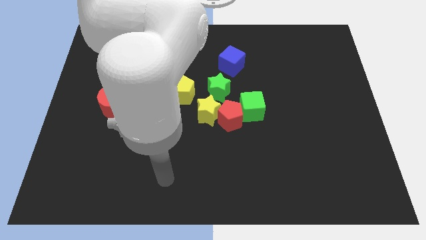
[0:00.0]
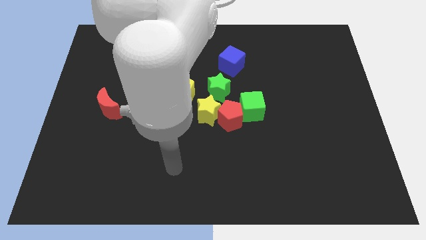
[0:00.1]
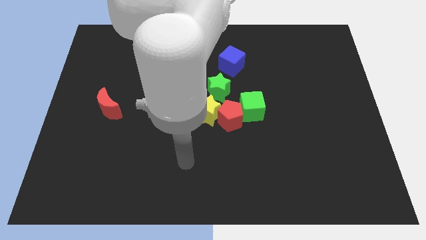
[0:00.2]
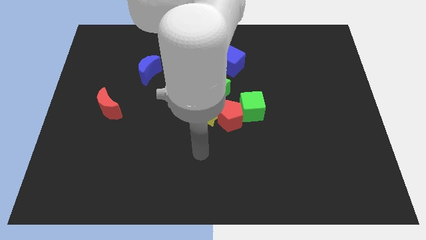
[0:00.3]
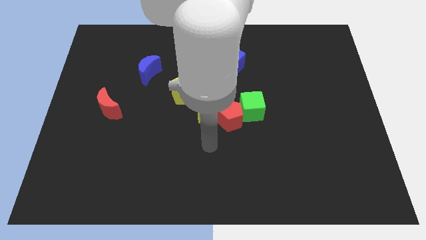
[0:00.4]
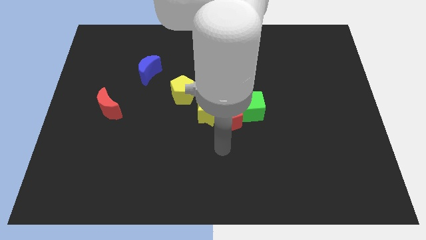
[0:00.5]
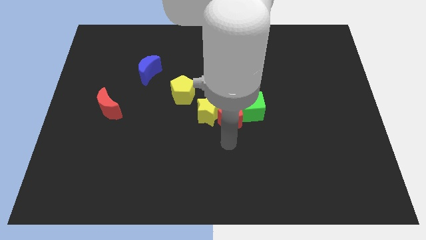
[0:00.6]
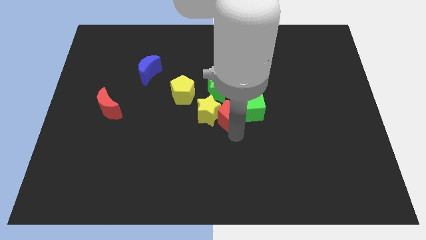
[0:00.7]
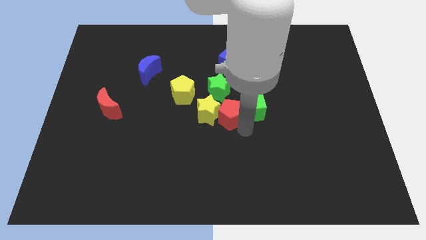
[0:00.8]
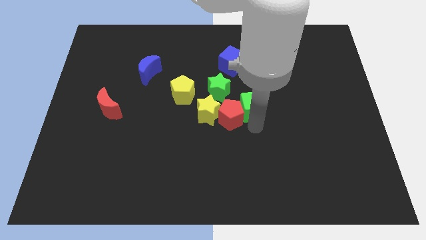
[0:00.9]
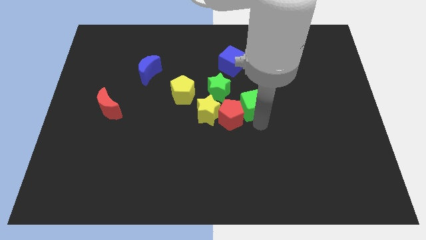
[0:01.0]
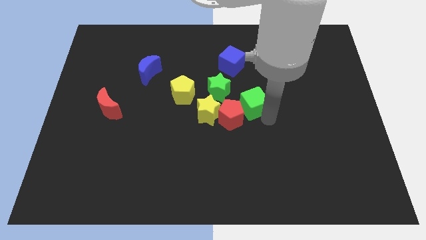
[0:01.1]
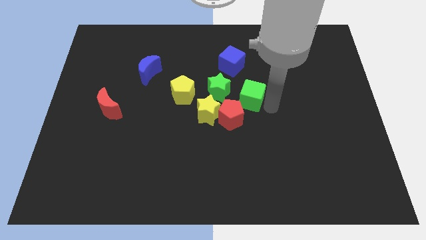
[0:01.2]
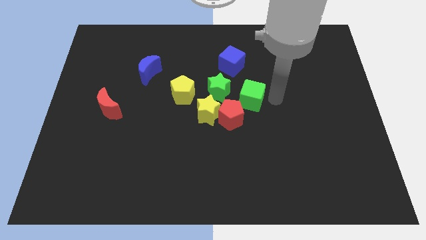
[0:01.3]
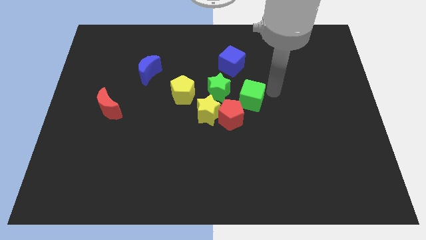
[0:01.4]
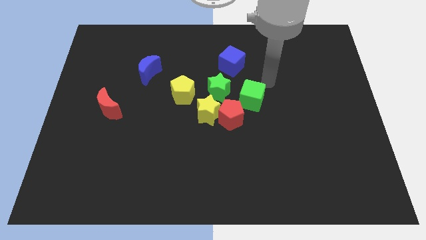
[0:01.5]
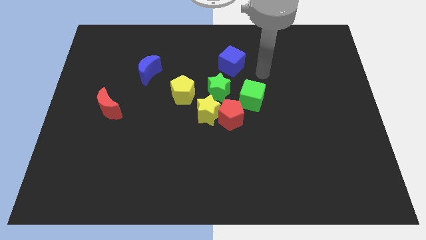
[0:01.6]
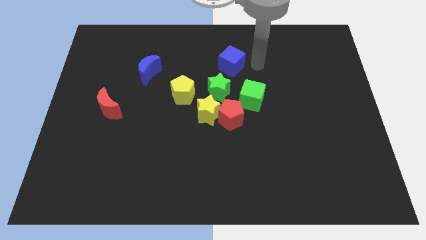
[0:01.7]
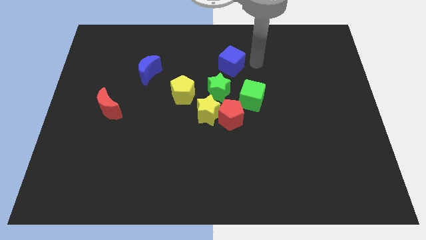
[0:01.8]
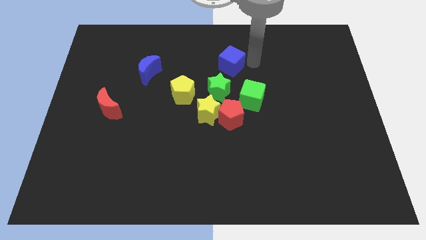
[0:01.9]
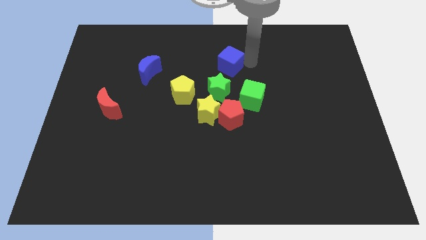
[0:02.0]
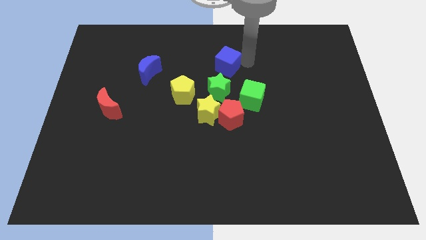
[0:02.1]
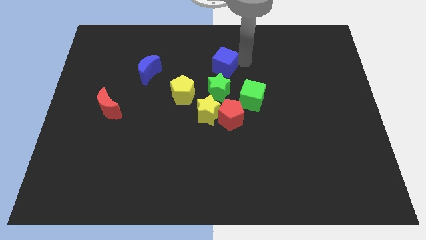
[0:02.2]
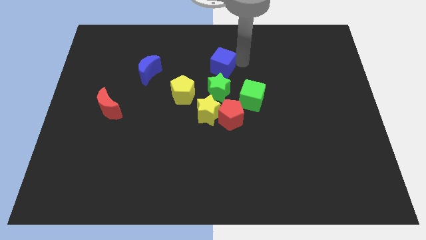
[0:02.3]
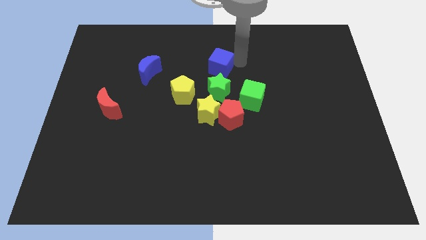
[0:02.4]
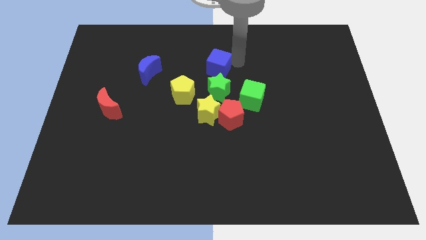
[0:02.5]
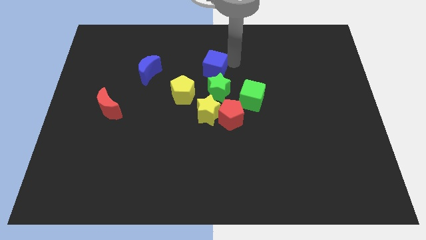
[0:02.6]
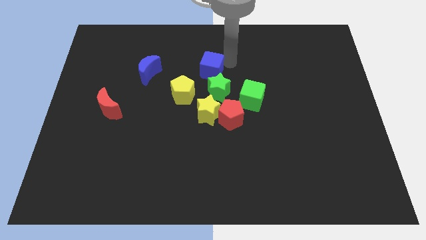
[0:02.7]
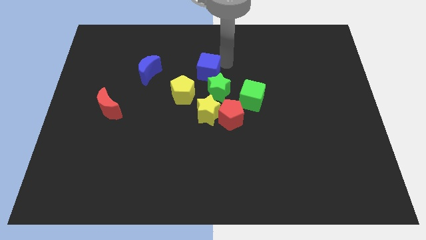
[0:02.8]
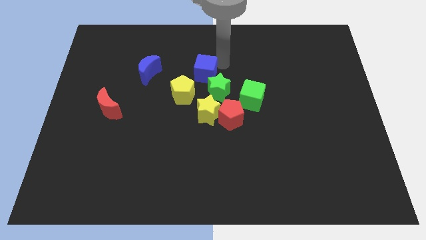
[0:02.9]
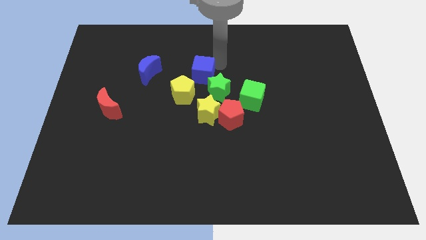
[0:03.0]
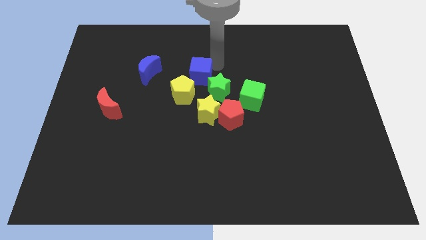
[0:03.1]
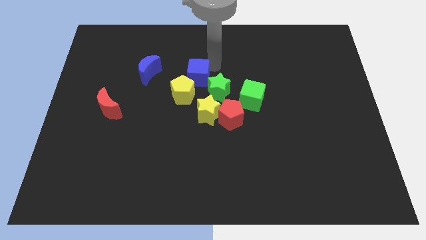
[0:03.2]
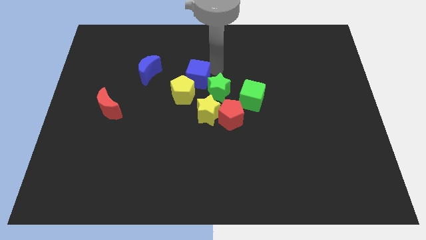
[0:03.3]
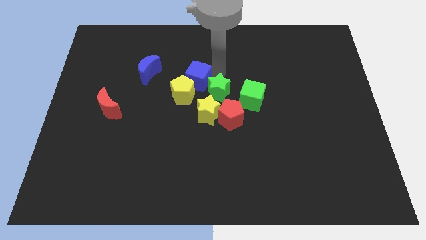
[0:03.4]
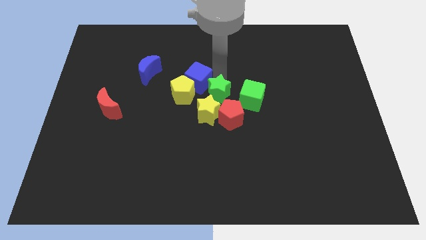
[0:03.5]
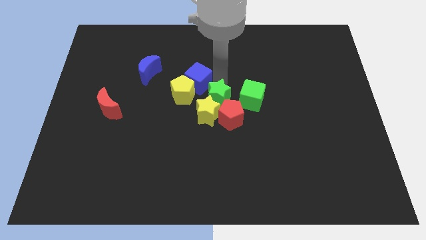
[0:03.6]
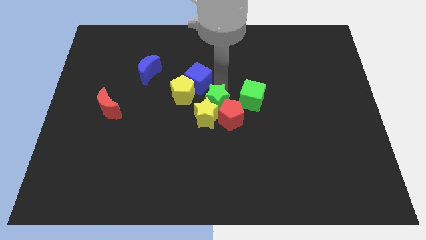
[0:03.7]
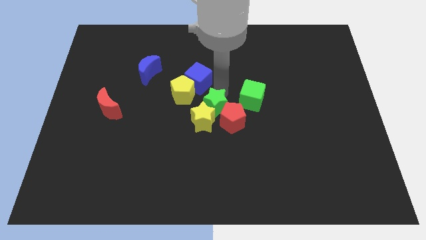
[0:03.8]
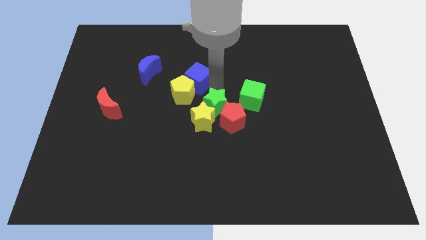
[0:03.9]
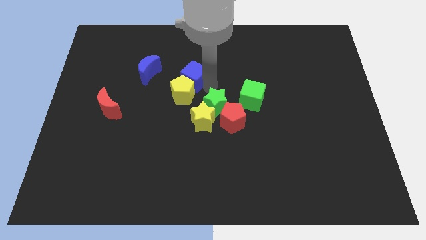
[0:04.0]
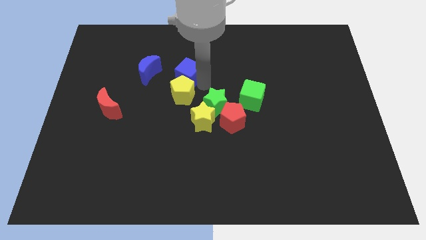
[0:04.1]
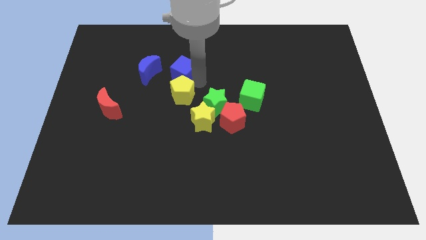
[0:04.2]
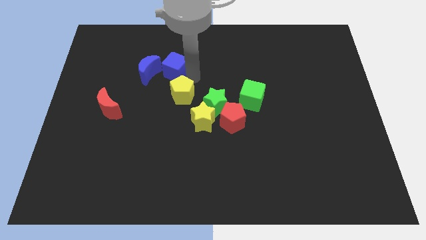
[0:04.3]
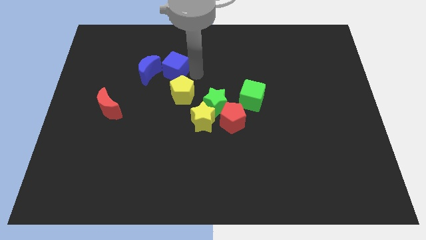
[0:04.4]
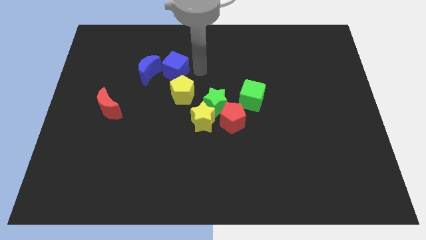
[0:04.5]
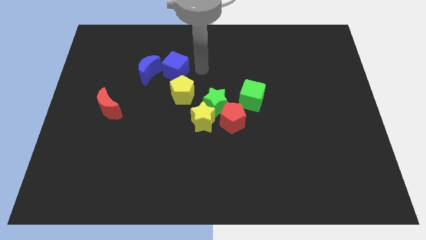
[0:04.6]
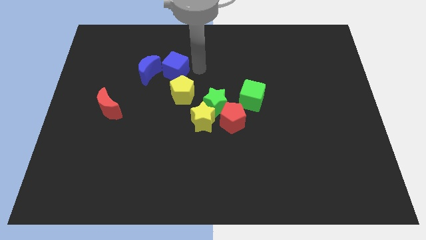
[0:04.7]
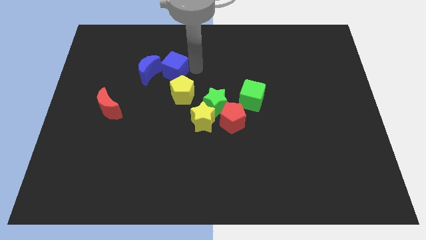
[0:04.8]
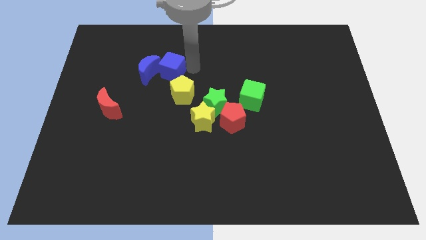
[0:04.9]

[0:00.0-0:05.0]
put the blue cube towards the blue moon

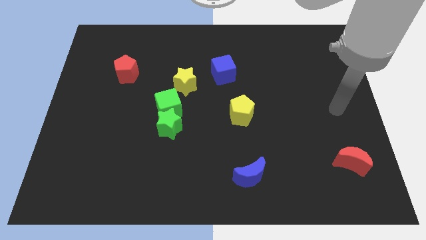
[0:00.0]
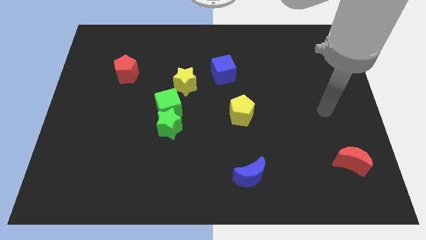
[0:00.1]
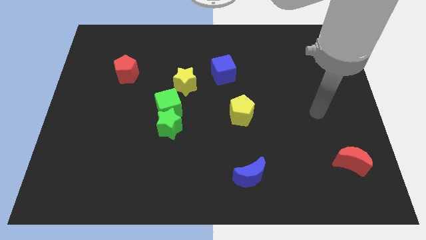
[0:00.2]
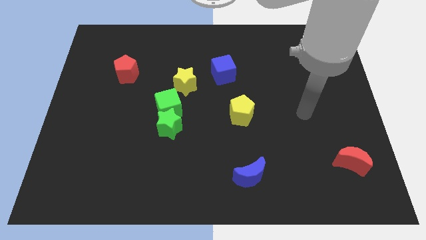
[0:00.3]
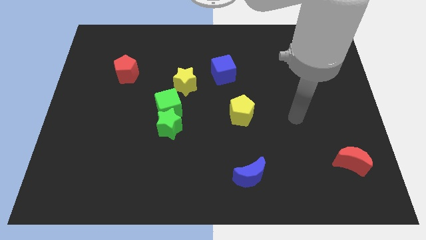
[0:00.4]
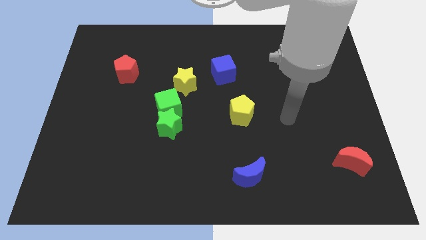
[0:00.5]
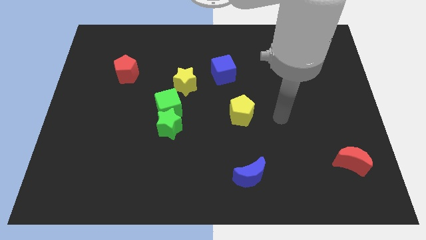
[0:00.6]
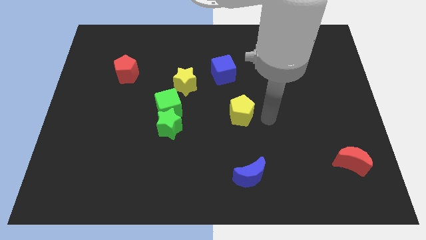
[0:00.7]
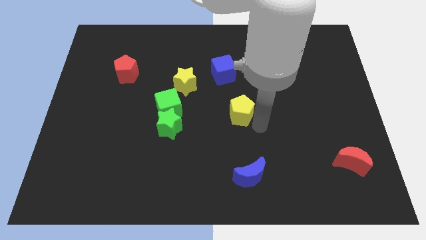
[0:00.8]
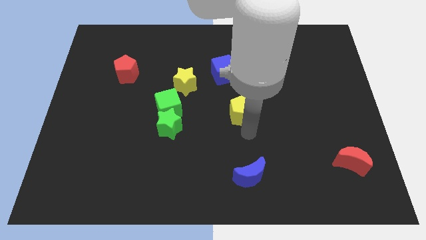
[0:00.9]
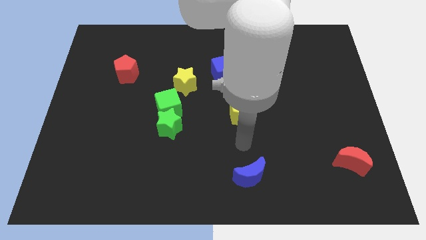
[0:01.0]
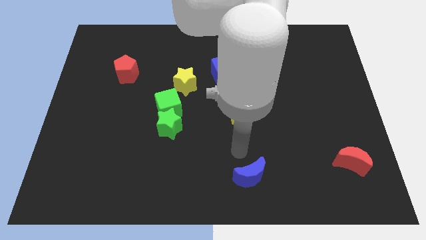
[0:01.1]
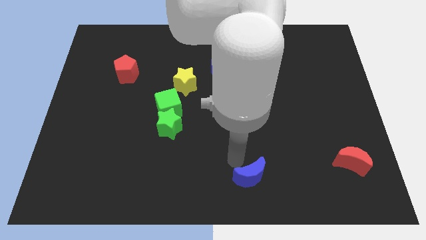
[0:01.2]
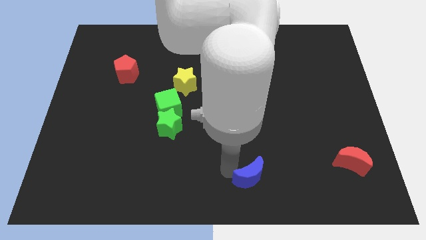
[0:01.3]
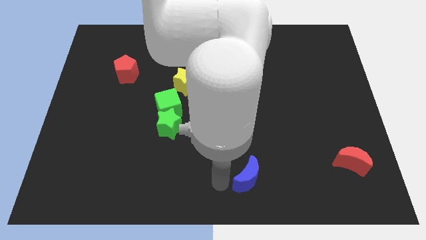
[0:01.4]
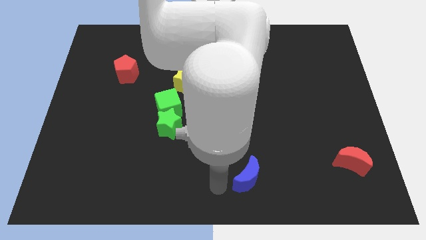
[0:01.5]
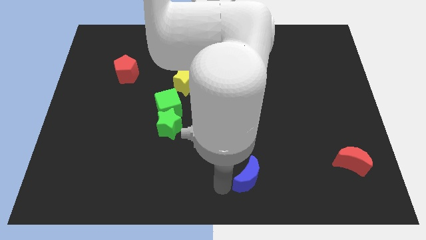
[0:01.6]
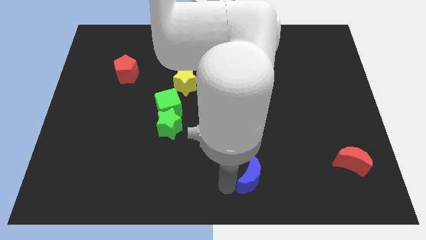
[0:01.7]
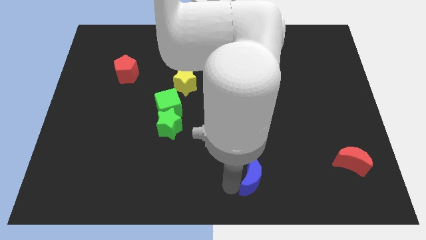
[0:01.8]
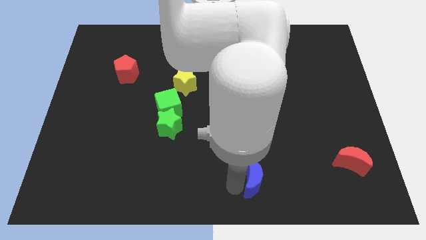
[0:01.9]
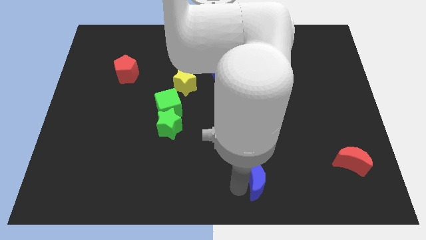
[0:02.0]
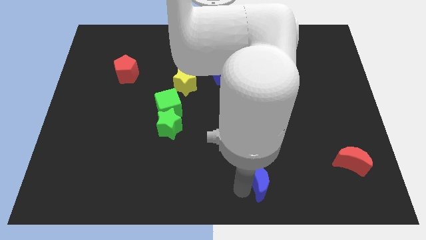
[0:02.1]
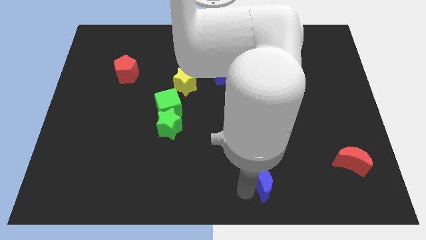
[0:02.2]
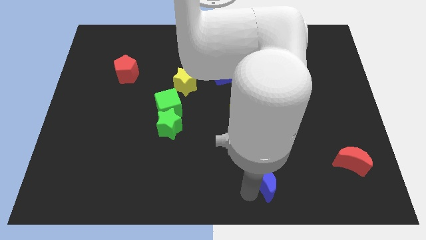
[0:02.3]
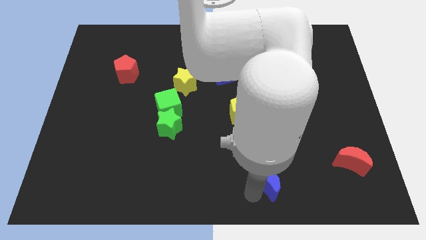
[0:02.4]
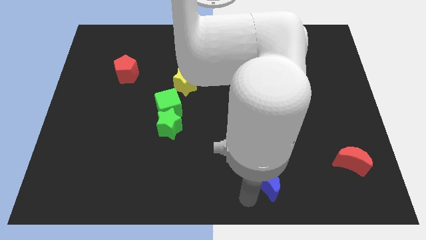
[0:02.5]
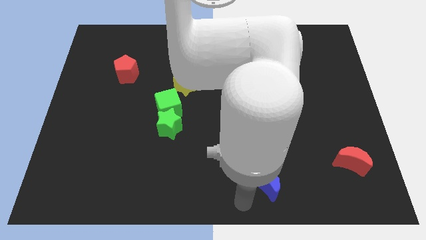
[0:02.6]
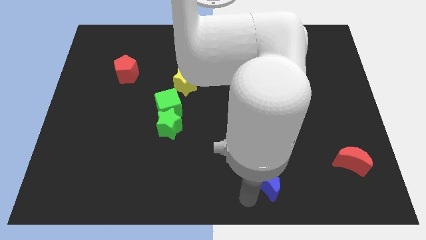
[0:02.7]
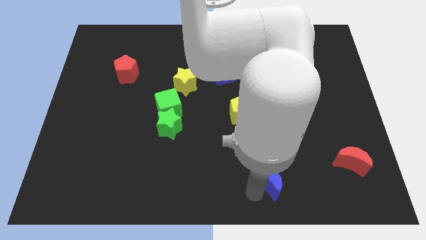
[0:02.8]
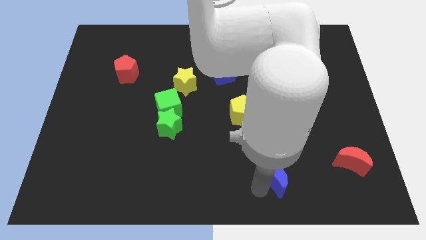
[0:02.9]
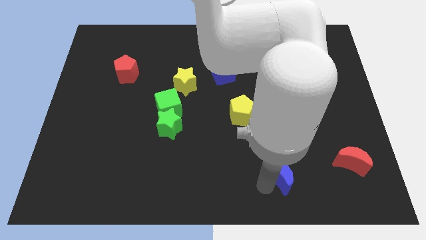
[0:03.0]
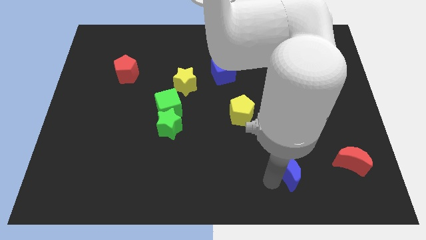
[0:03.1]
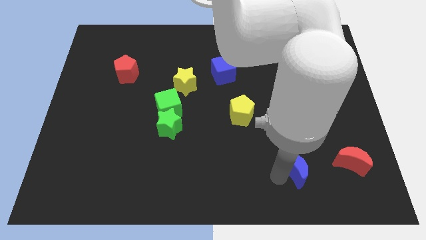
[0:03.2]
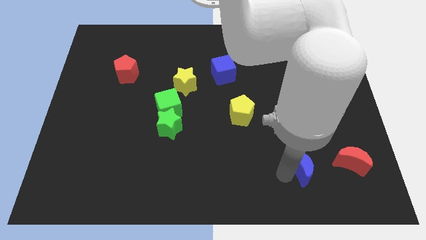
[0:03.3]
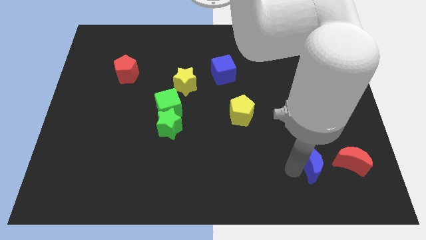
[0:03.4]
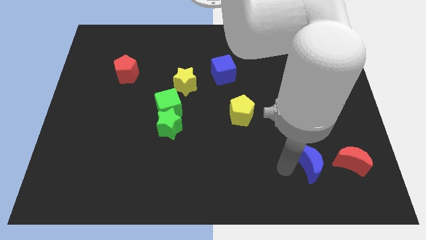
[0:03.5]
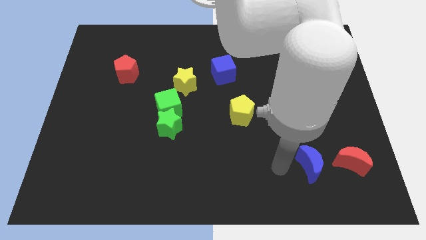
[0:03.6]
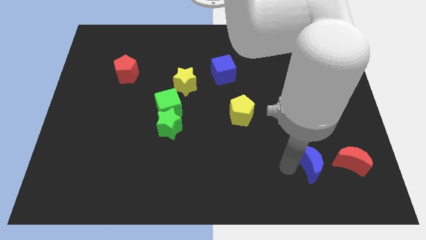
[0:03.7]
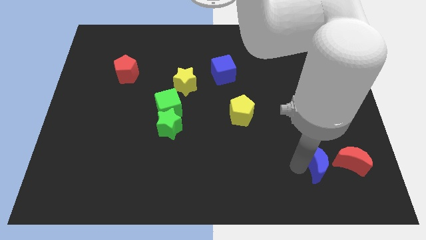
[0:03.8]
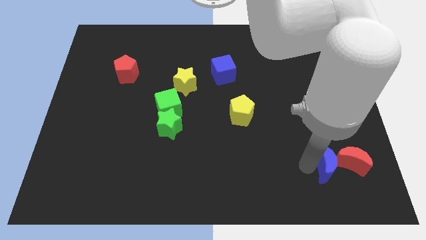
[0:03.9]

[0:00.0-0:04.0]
put the blue moon close to the red moon
